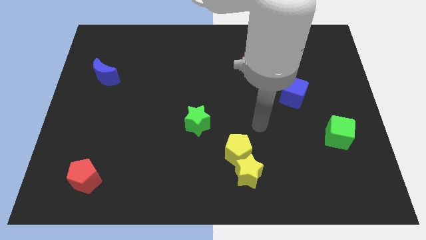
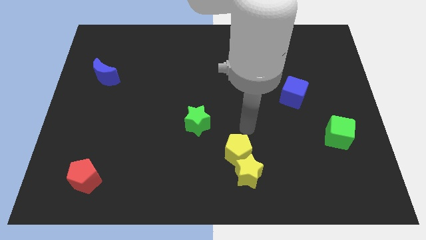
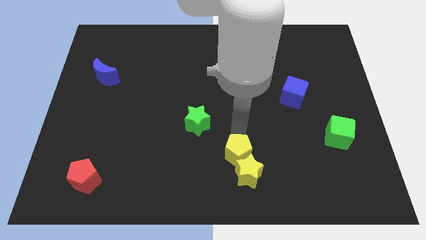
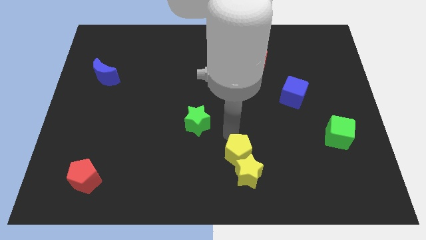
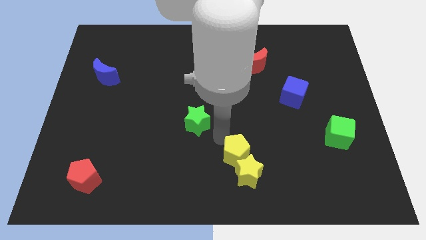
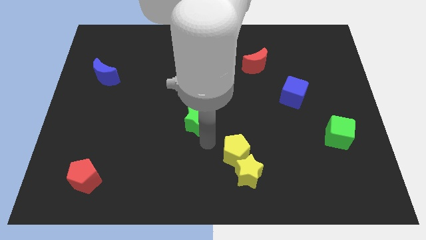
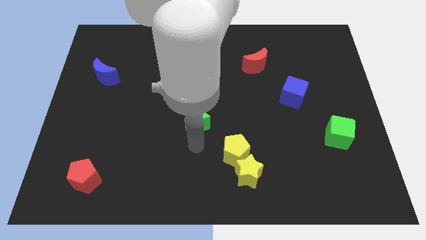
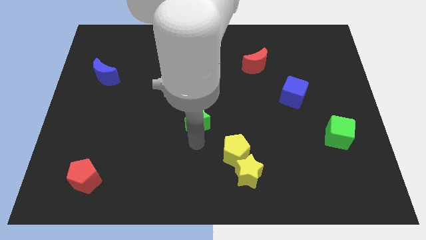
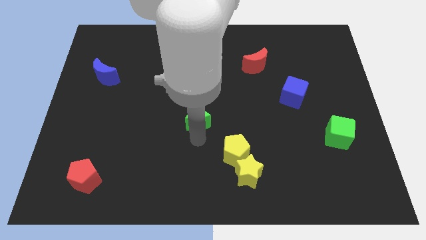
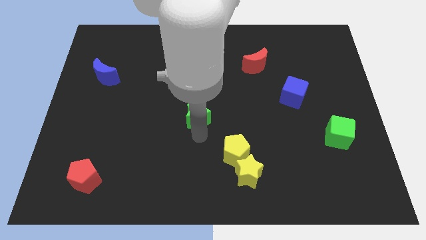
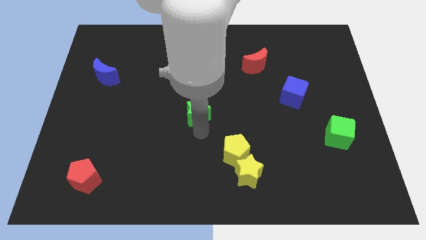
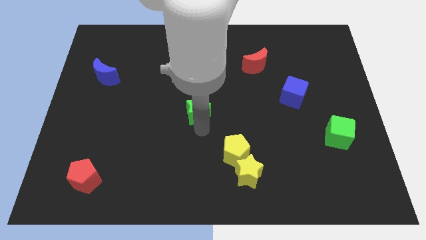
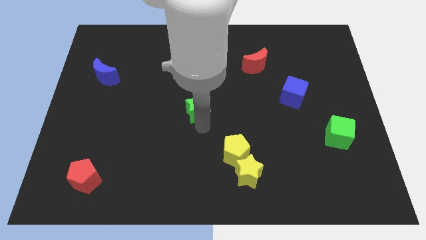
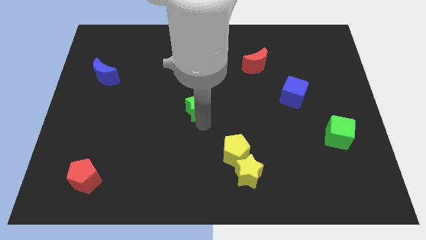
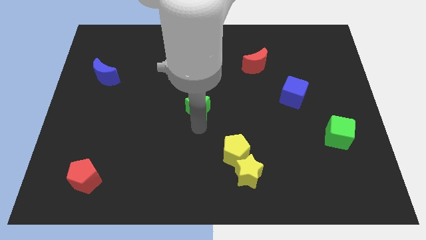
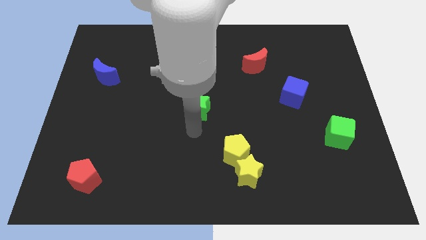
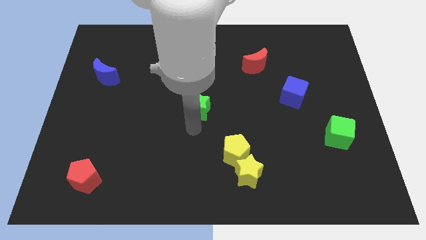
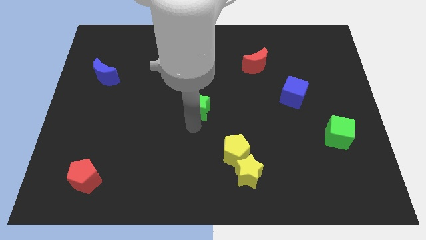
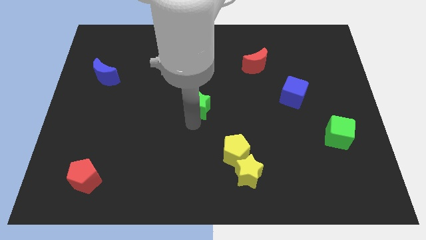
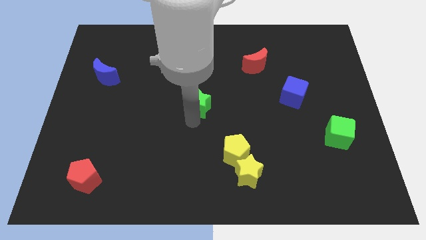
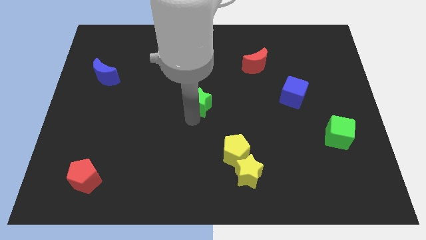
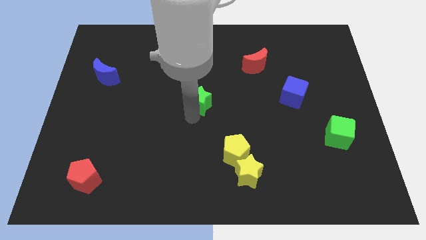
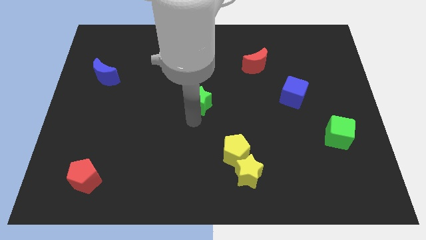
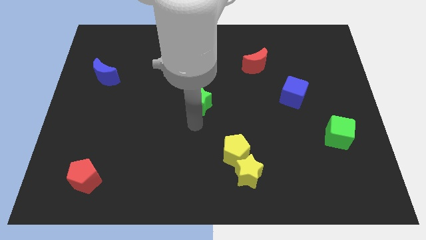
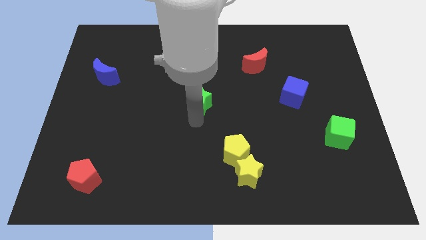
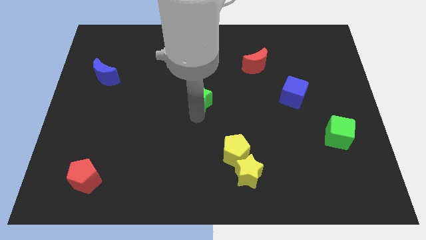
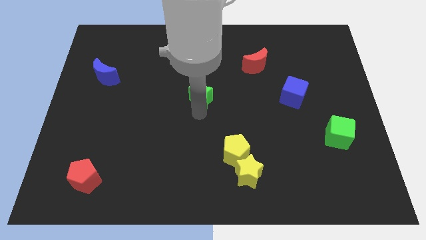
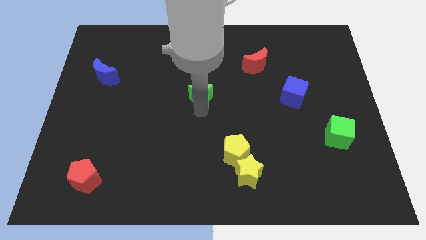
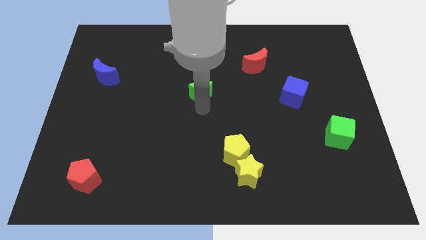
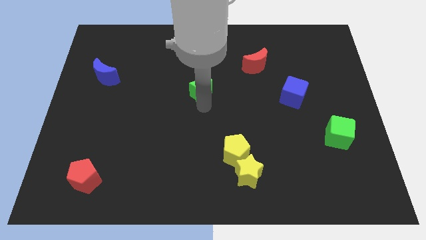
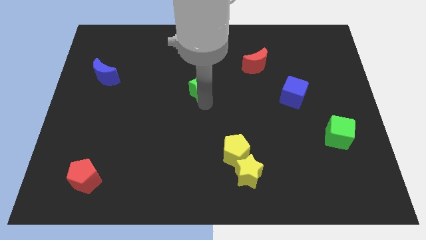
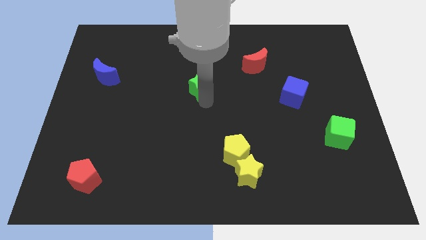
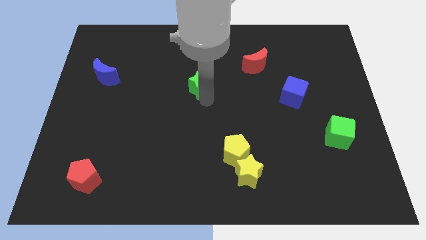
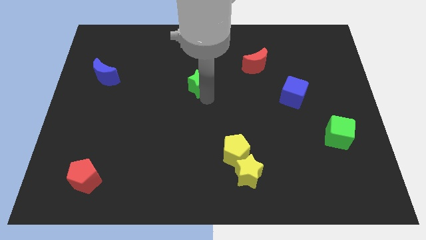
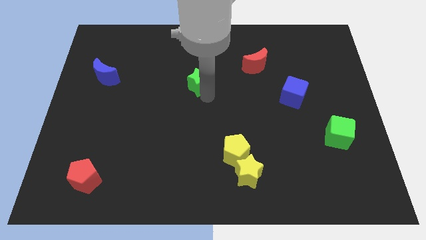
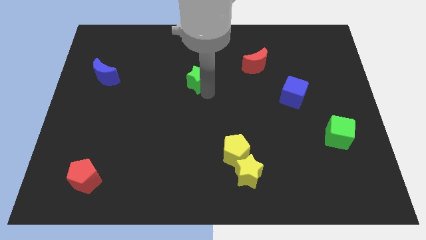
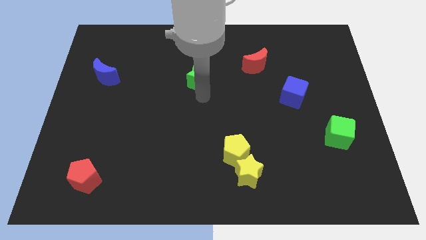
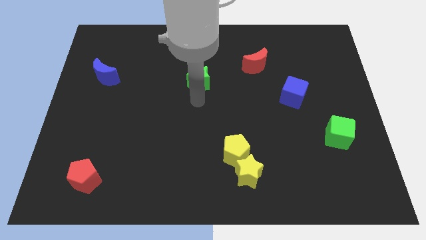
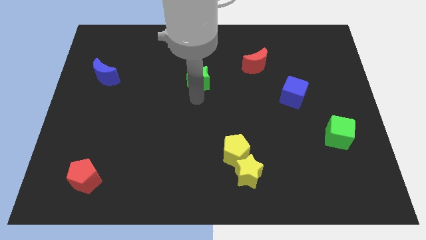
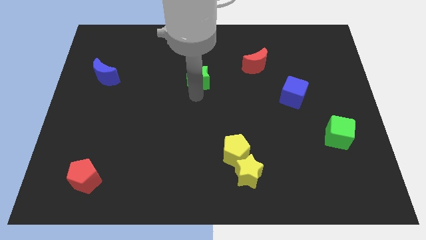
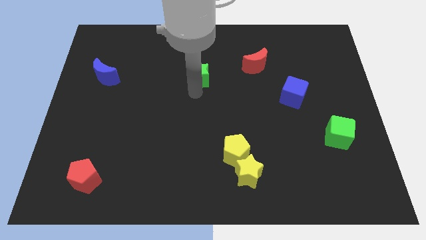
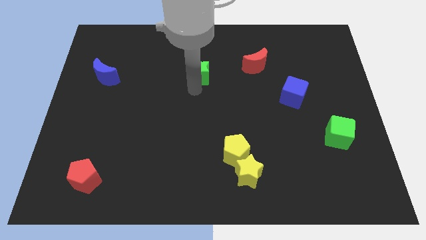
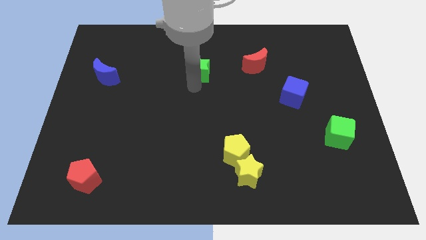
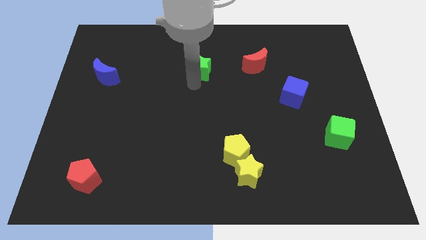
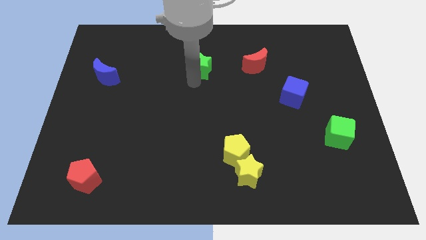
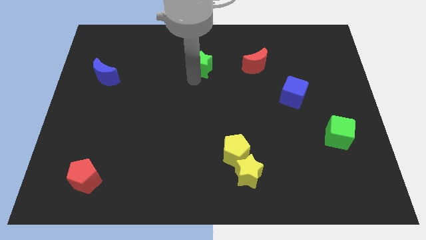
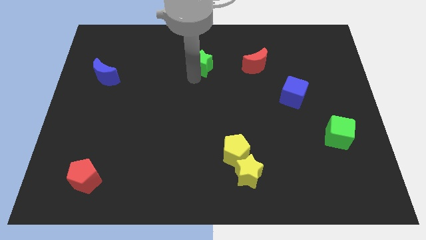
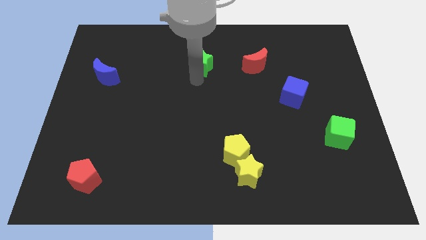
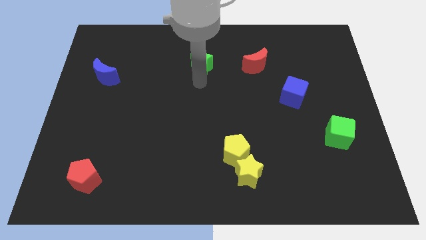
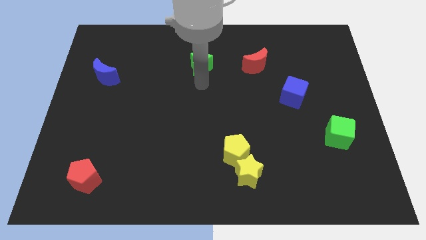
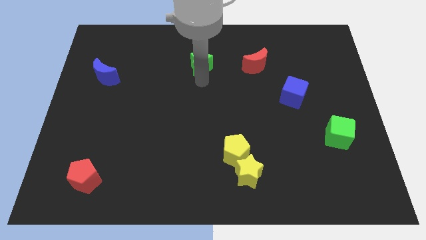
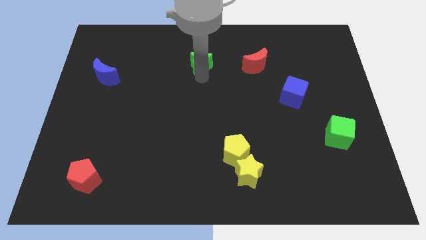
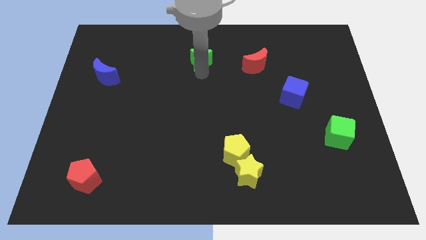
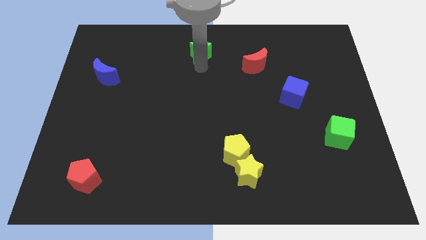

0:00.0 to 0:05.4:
slide the green star to the towards your base

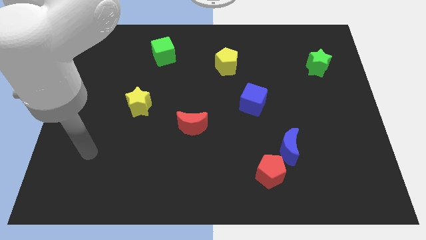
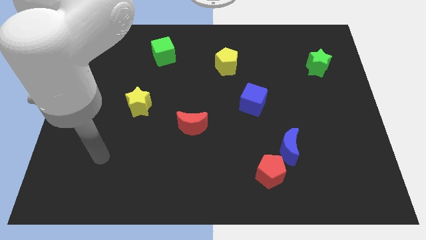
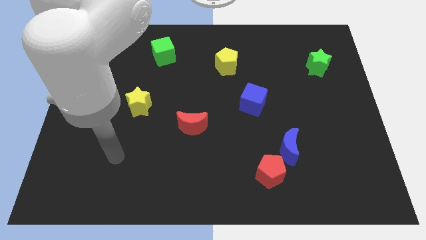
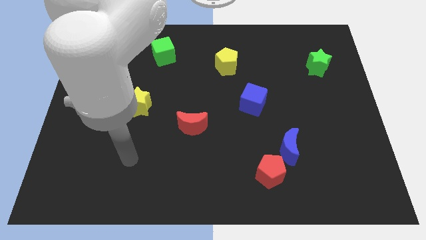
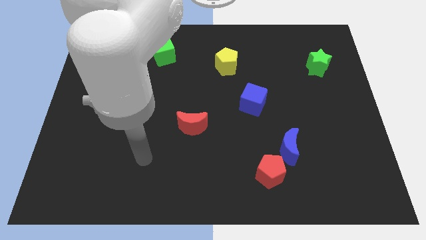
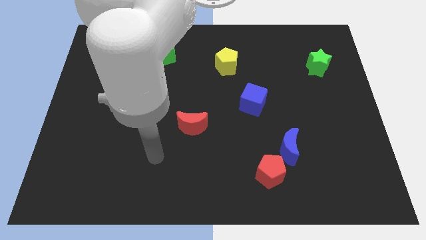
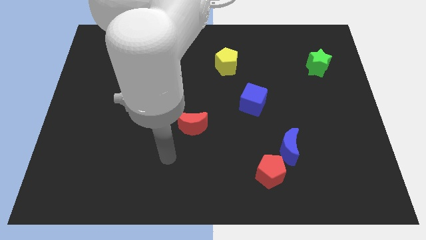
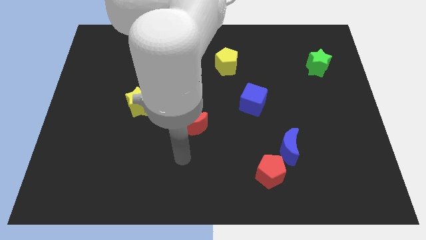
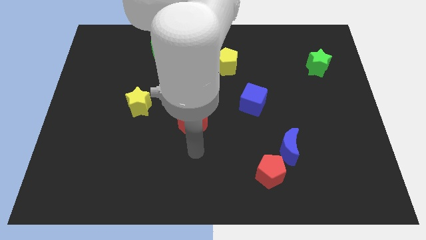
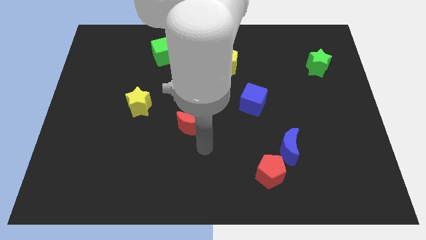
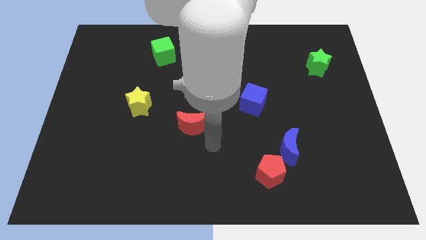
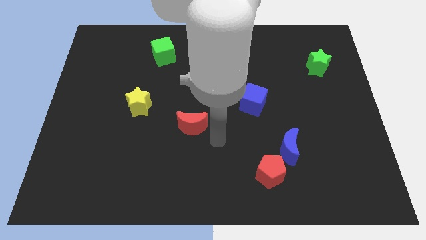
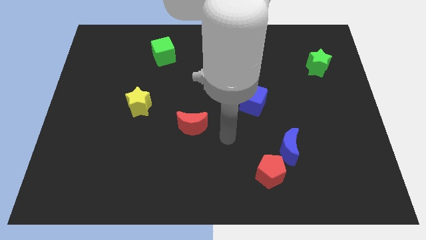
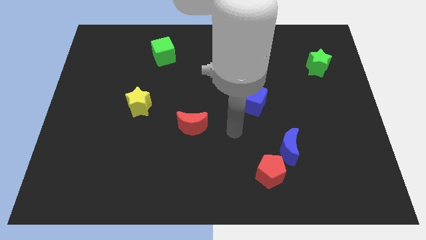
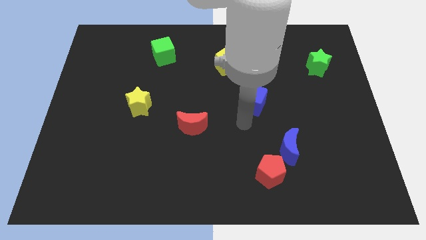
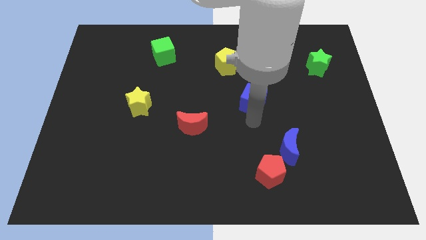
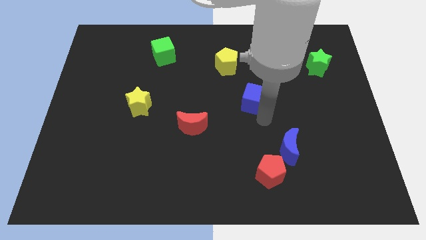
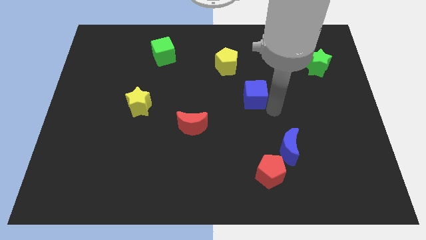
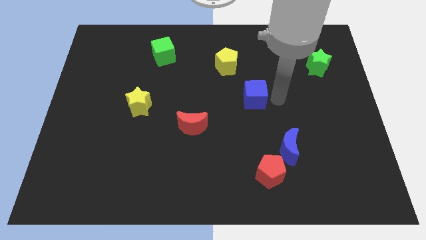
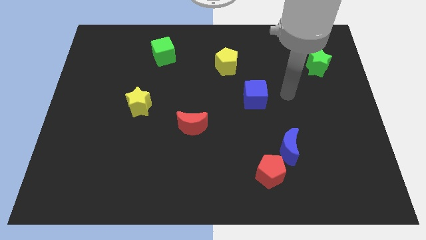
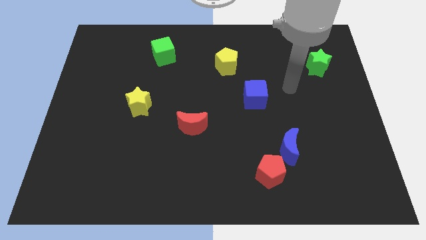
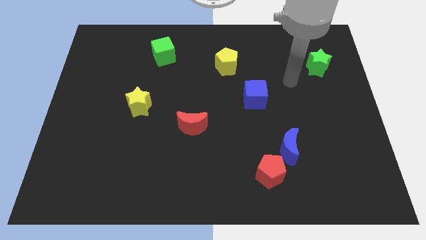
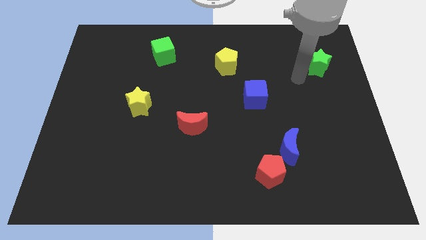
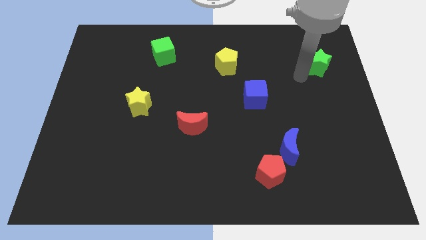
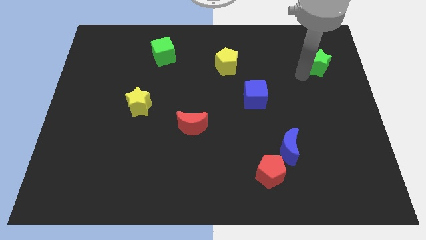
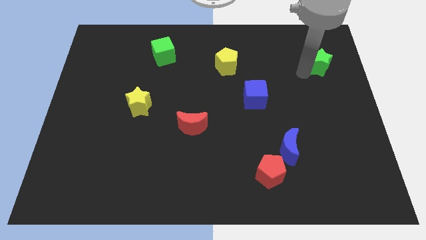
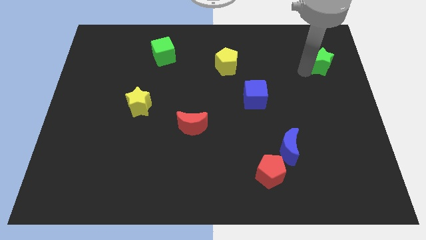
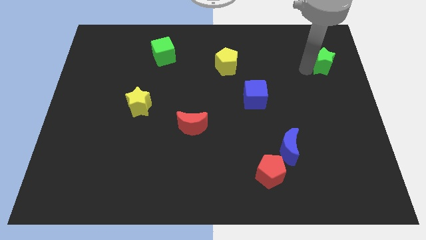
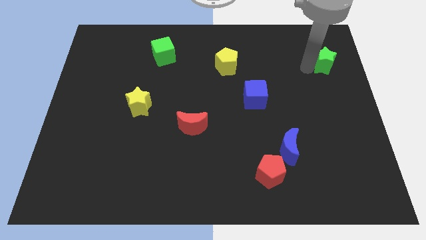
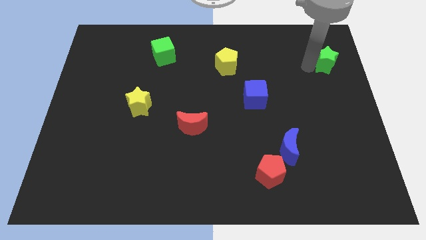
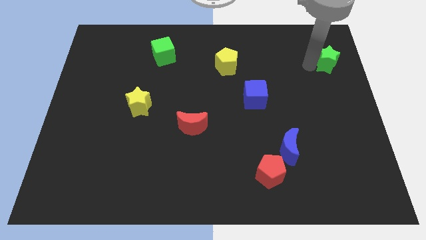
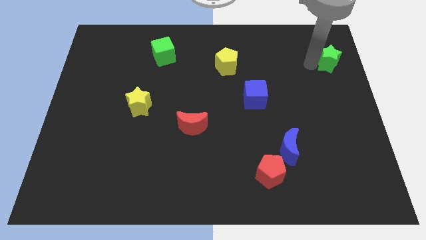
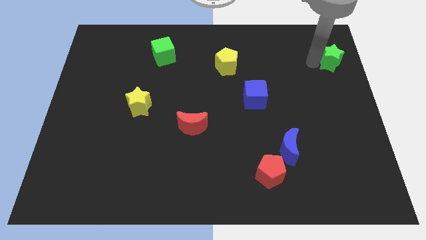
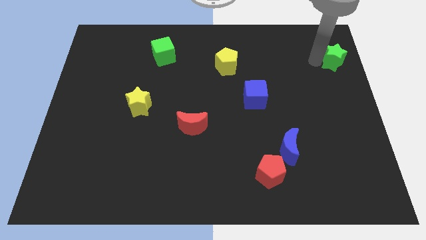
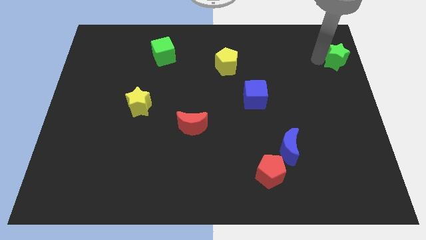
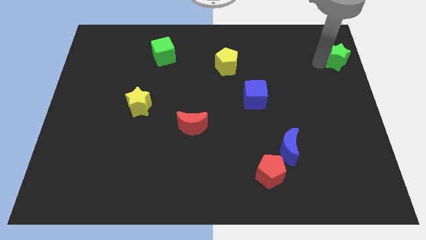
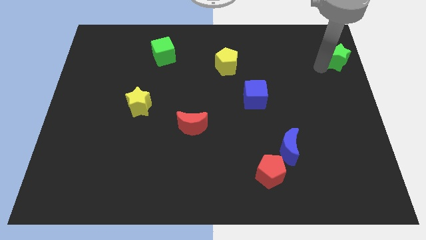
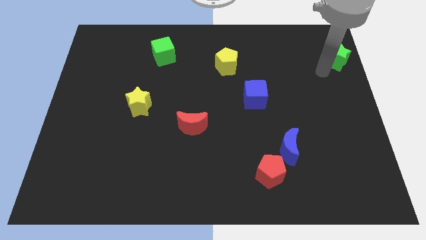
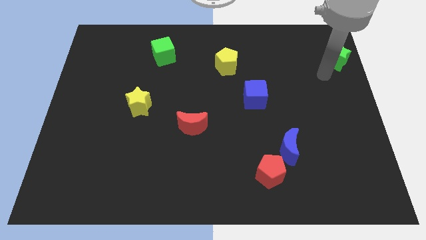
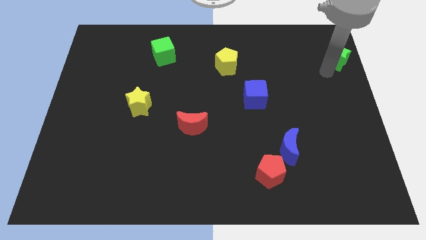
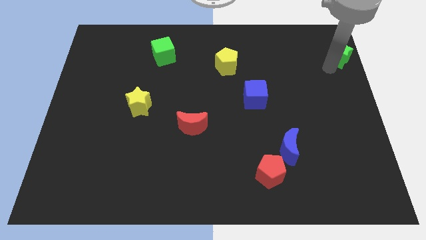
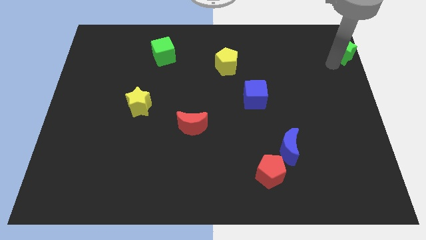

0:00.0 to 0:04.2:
push the green star to the top right of the board
